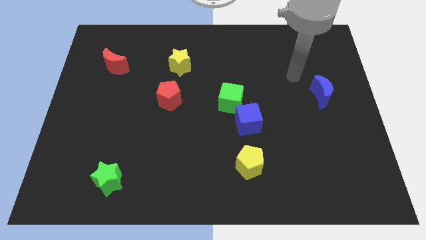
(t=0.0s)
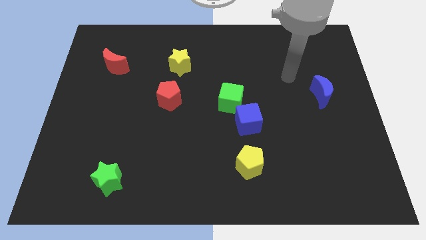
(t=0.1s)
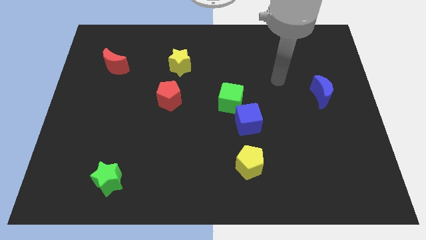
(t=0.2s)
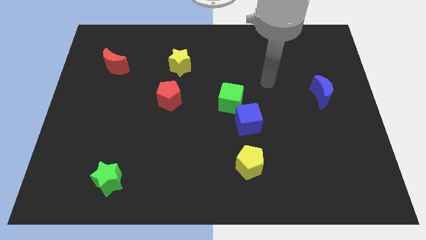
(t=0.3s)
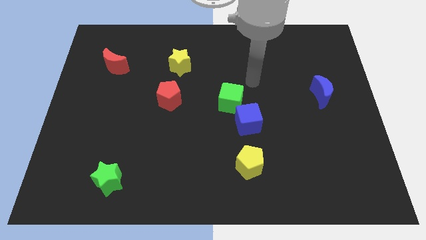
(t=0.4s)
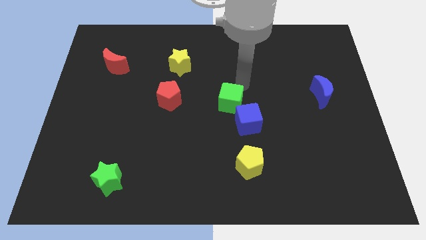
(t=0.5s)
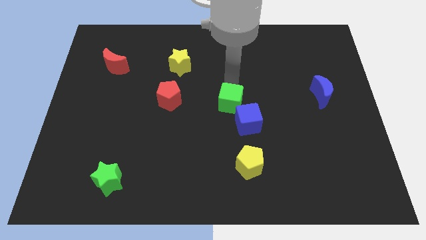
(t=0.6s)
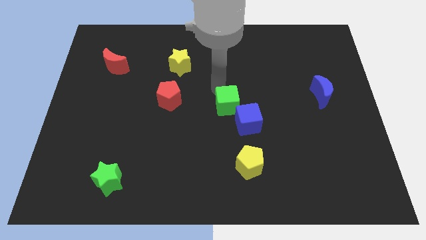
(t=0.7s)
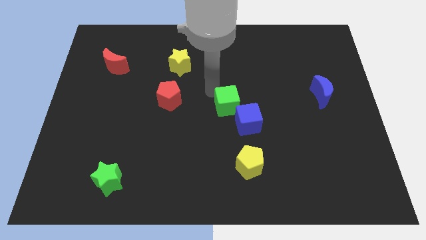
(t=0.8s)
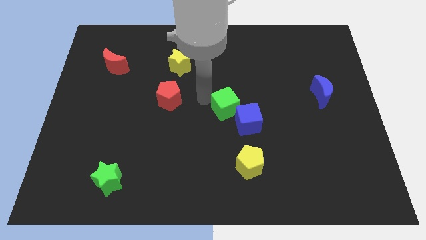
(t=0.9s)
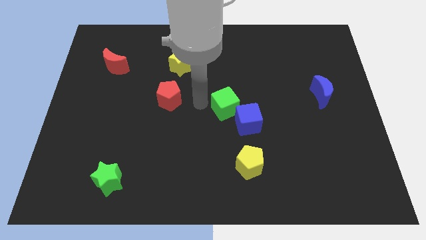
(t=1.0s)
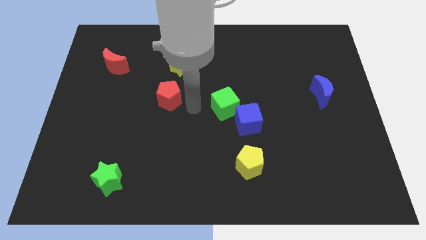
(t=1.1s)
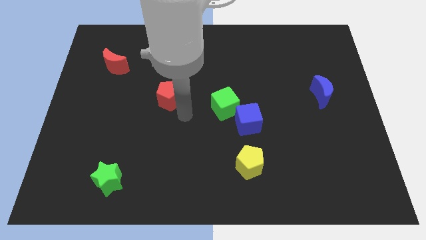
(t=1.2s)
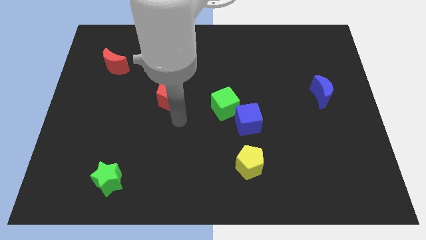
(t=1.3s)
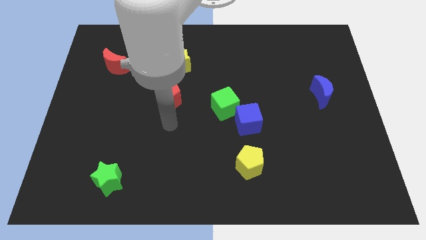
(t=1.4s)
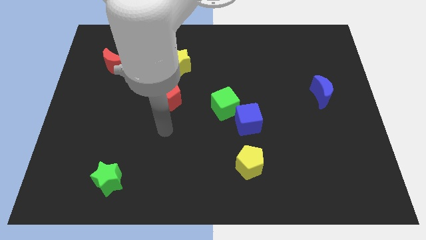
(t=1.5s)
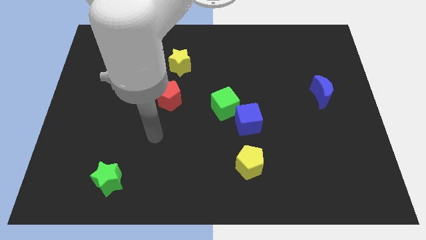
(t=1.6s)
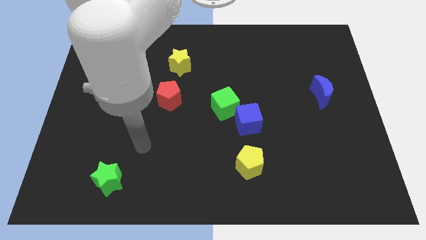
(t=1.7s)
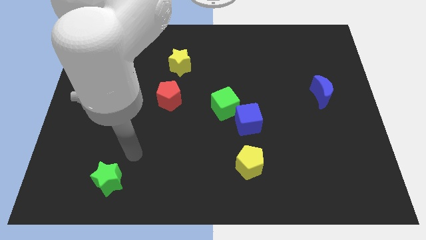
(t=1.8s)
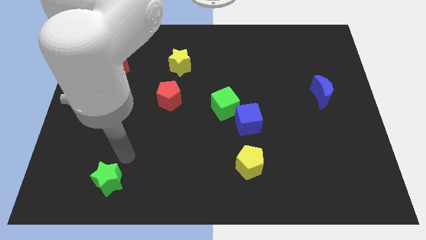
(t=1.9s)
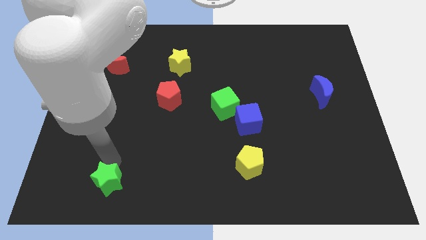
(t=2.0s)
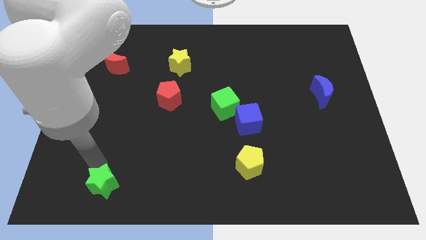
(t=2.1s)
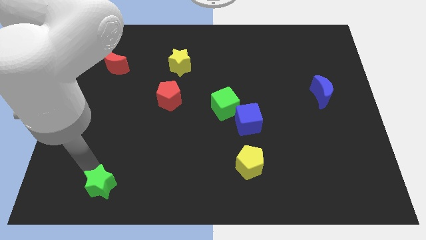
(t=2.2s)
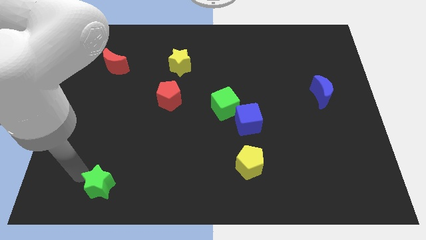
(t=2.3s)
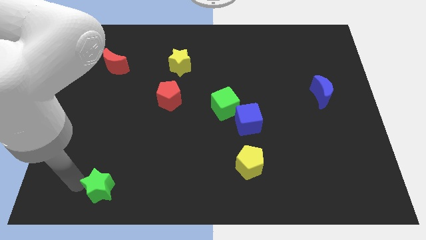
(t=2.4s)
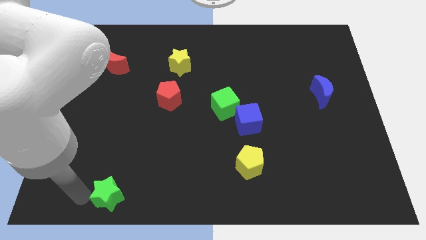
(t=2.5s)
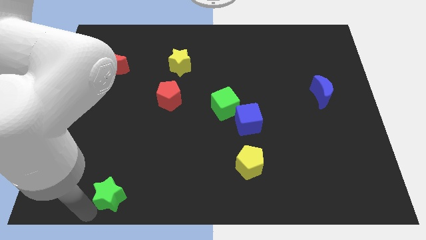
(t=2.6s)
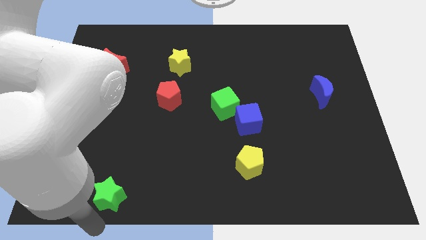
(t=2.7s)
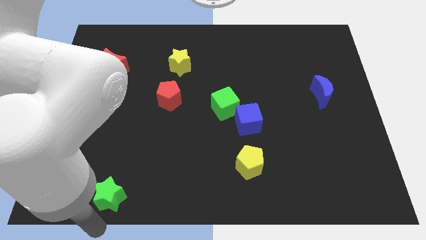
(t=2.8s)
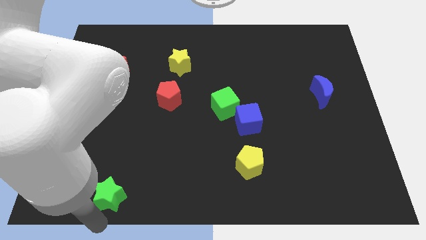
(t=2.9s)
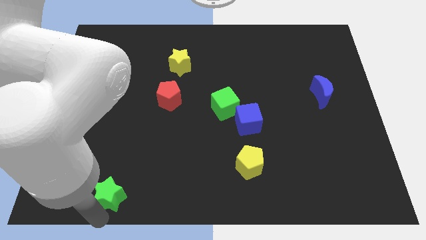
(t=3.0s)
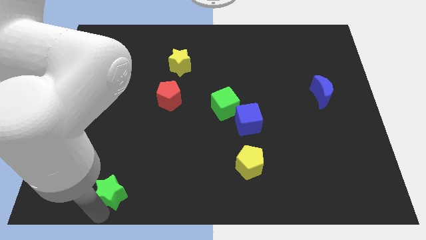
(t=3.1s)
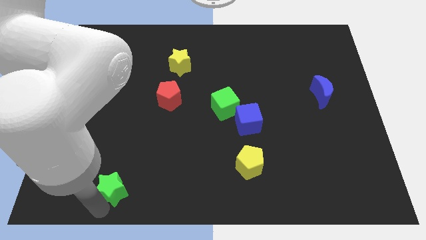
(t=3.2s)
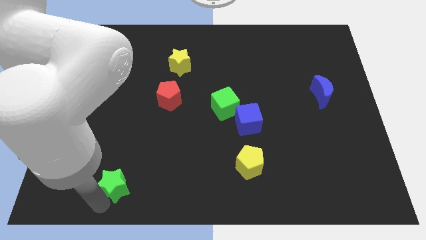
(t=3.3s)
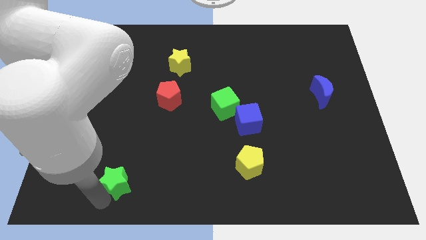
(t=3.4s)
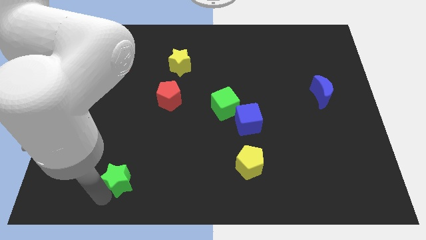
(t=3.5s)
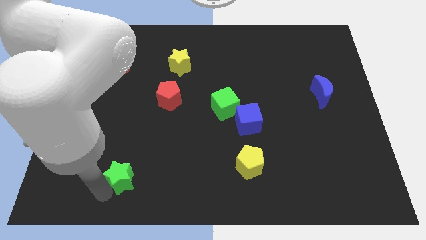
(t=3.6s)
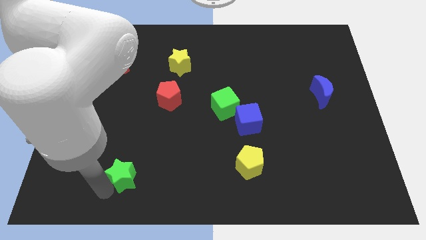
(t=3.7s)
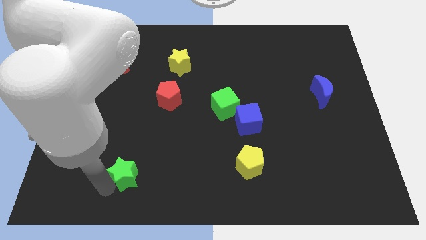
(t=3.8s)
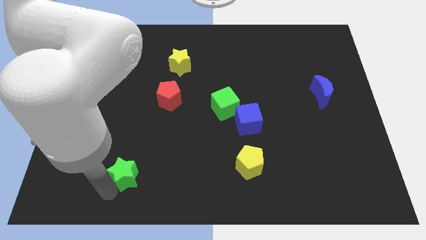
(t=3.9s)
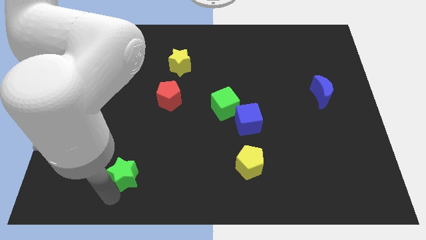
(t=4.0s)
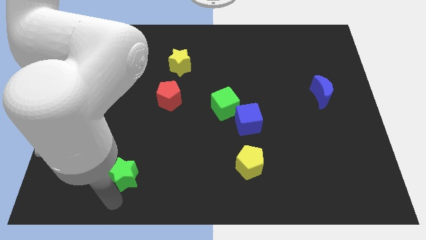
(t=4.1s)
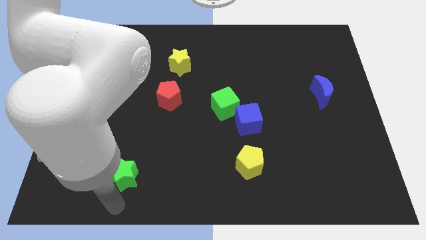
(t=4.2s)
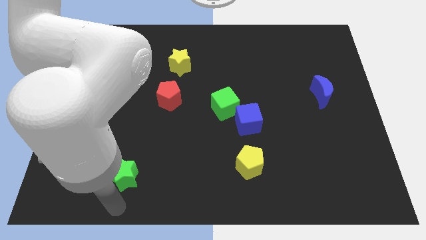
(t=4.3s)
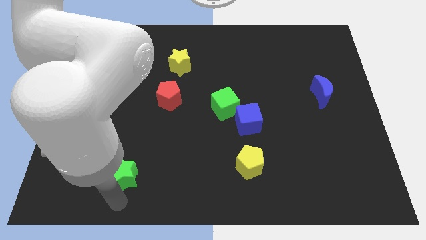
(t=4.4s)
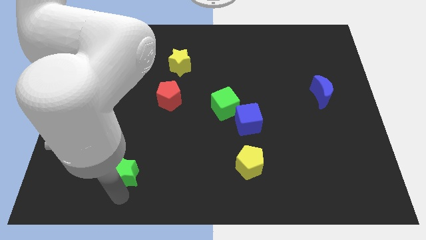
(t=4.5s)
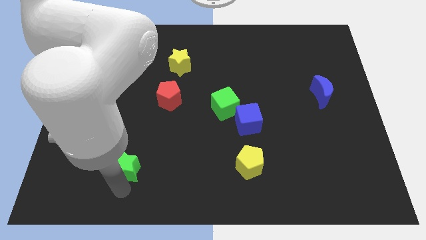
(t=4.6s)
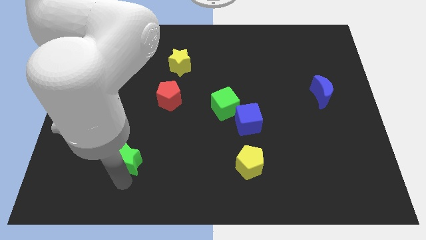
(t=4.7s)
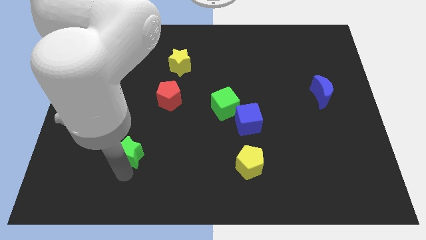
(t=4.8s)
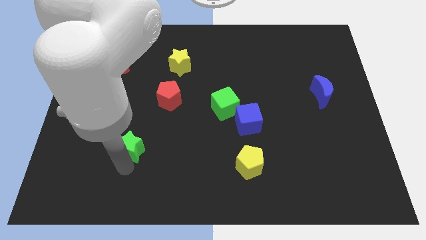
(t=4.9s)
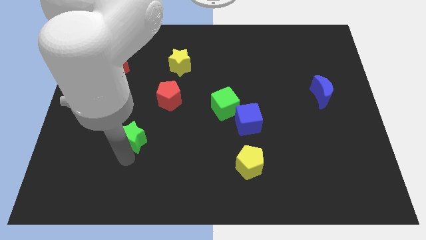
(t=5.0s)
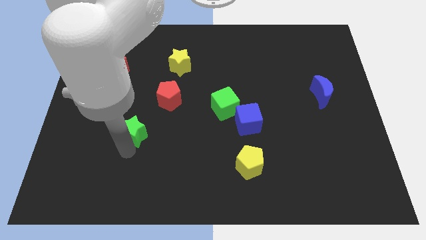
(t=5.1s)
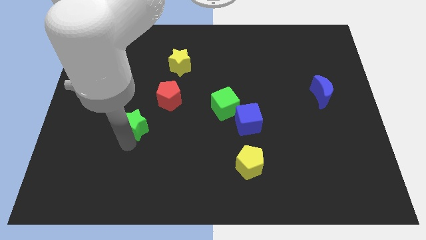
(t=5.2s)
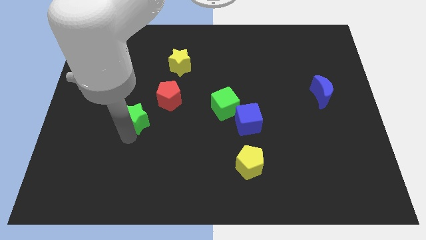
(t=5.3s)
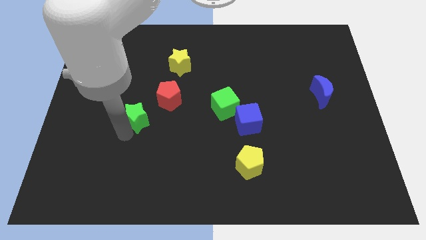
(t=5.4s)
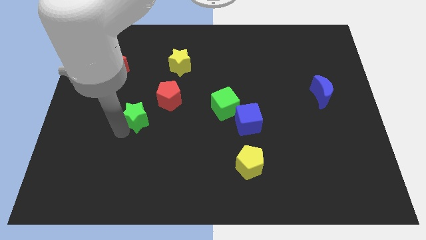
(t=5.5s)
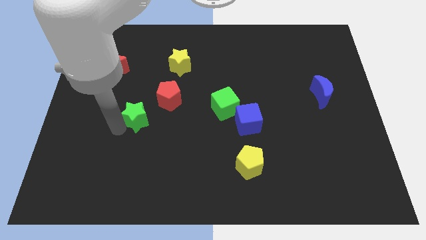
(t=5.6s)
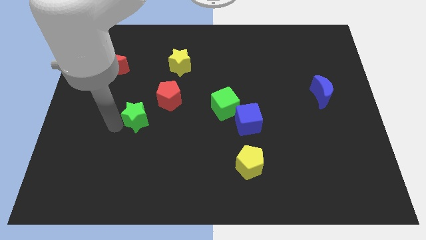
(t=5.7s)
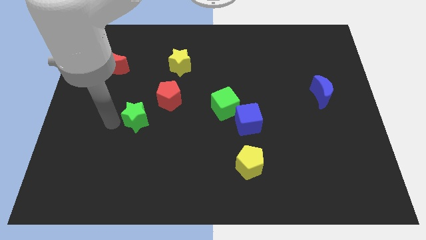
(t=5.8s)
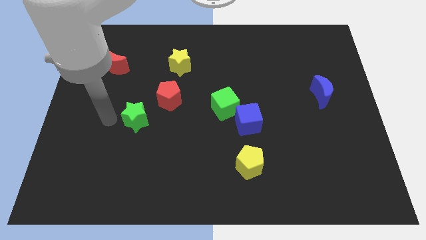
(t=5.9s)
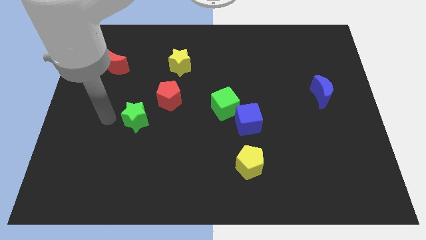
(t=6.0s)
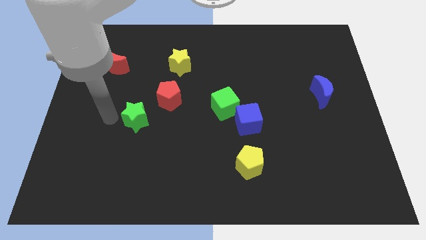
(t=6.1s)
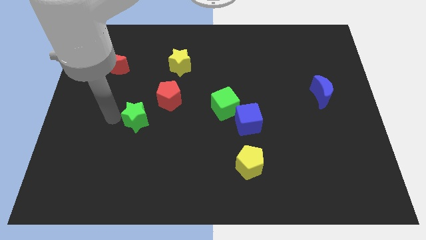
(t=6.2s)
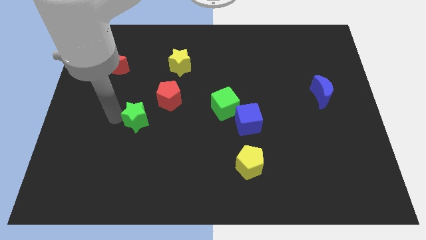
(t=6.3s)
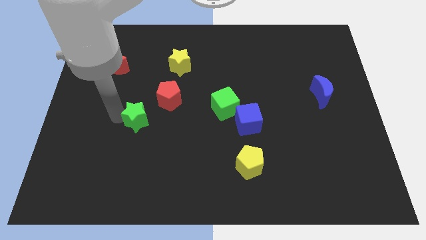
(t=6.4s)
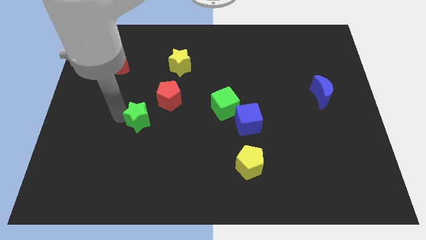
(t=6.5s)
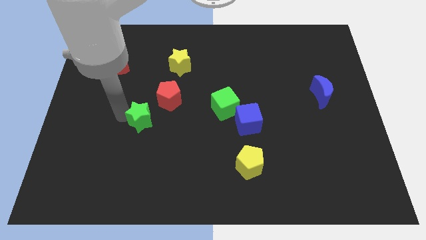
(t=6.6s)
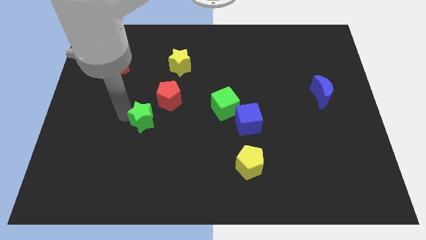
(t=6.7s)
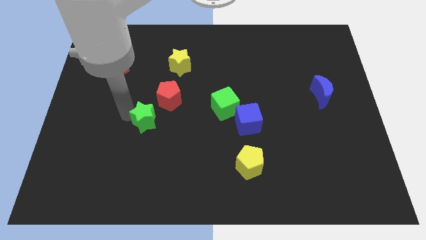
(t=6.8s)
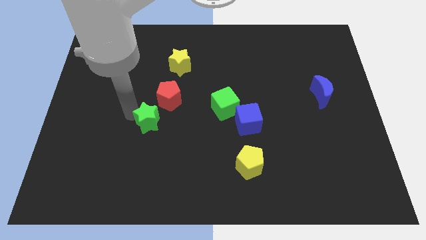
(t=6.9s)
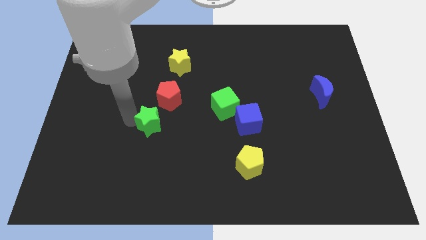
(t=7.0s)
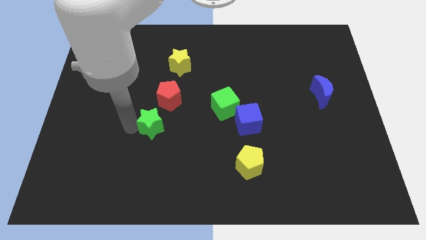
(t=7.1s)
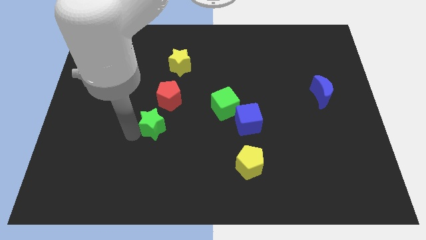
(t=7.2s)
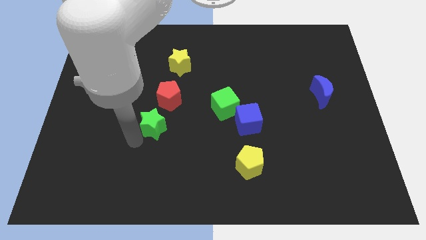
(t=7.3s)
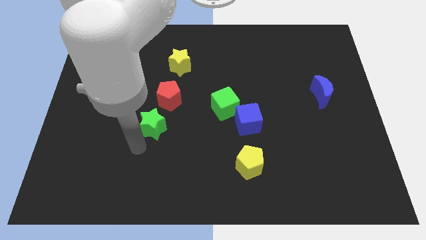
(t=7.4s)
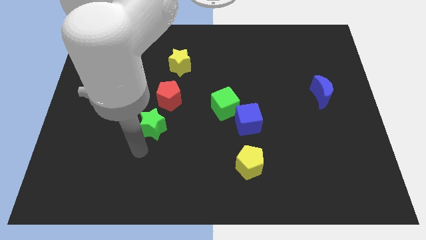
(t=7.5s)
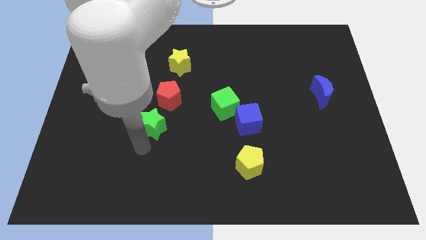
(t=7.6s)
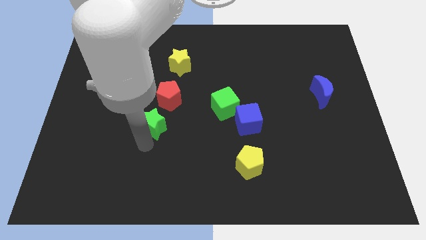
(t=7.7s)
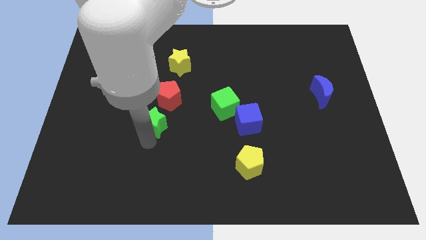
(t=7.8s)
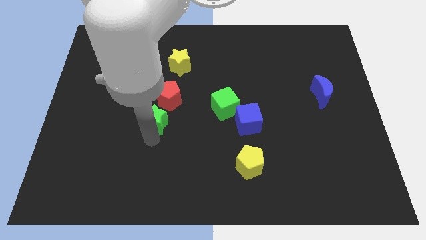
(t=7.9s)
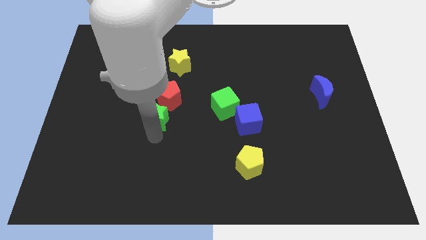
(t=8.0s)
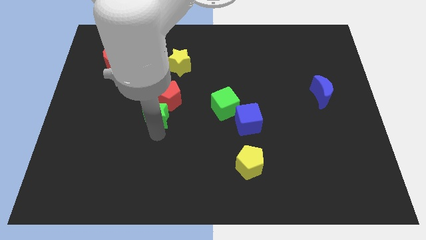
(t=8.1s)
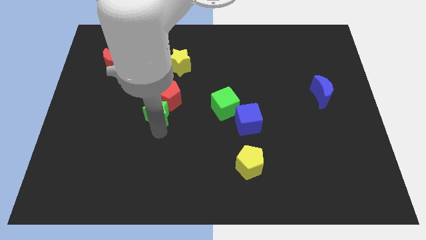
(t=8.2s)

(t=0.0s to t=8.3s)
put the green star to the red pentagon
